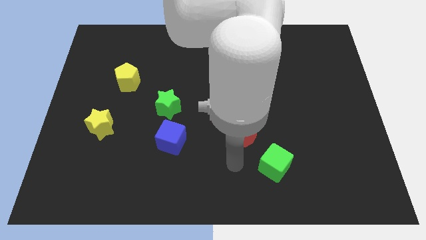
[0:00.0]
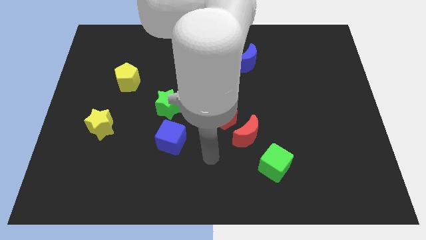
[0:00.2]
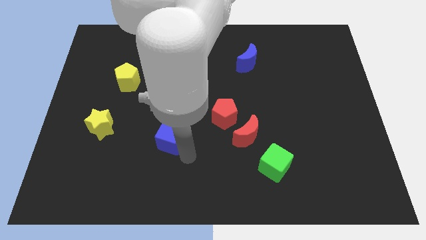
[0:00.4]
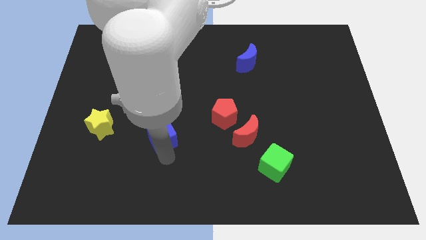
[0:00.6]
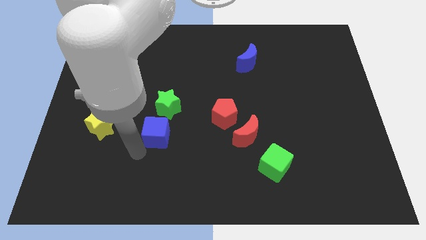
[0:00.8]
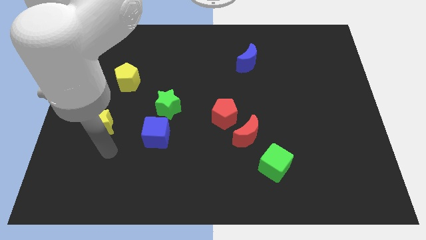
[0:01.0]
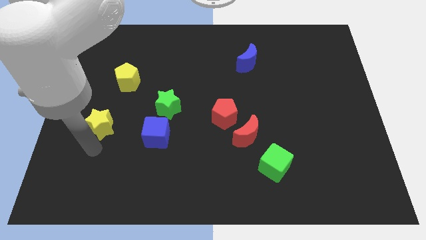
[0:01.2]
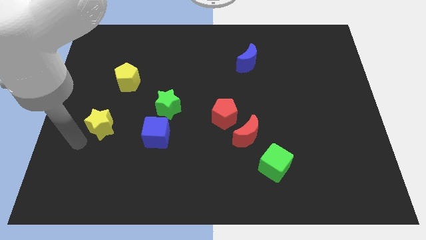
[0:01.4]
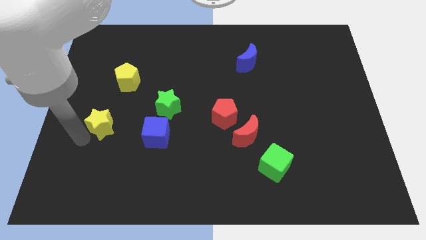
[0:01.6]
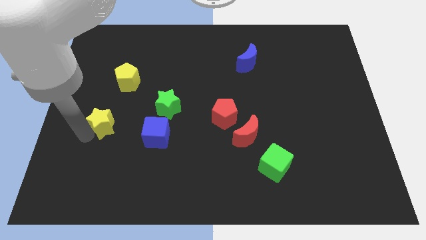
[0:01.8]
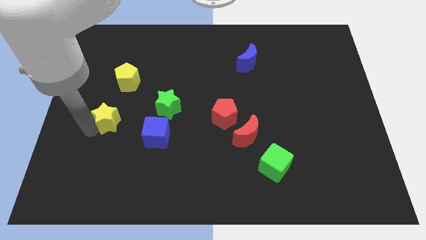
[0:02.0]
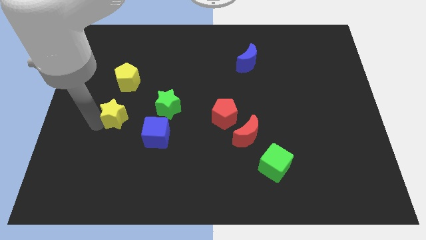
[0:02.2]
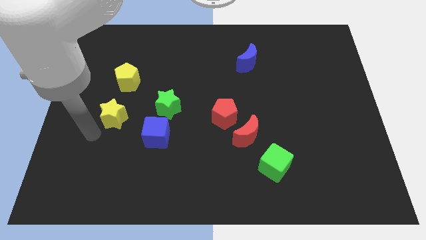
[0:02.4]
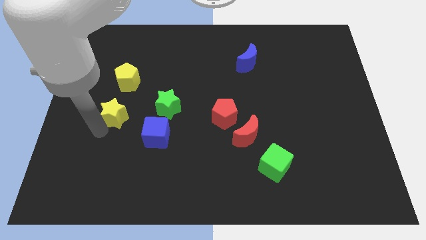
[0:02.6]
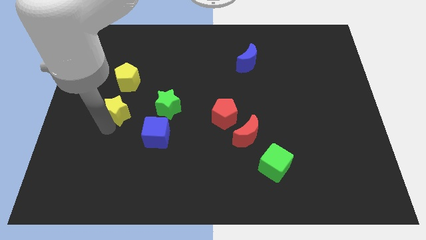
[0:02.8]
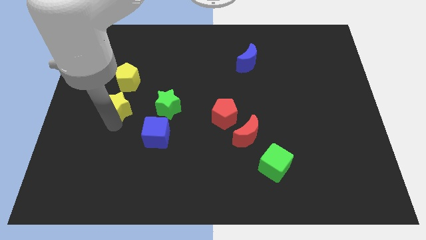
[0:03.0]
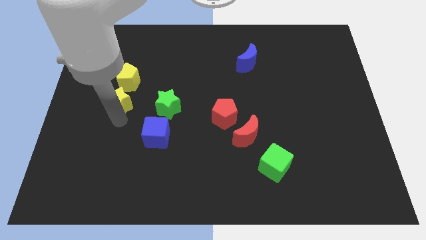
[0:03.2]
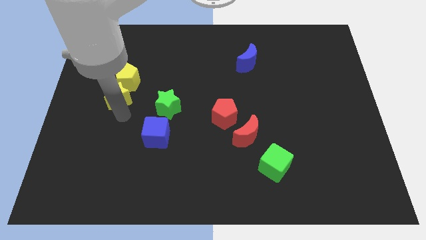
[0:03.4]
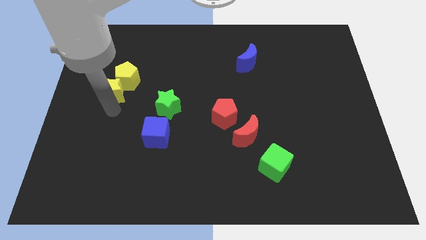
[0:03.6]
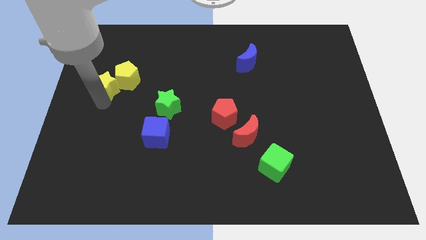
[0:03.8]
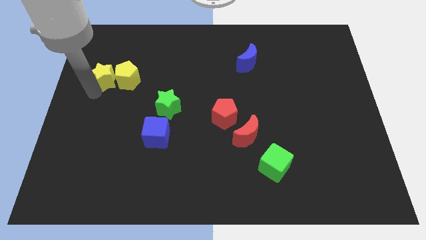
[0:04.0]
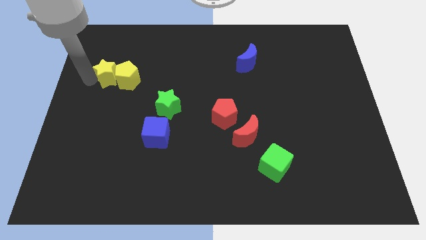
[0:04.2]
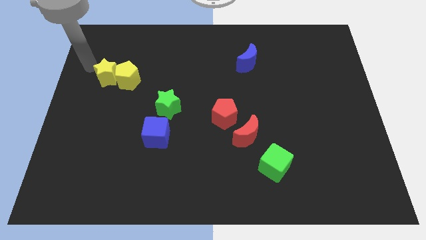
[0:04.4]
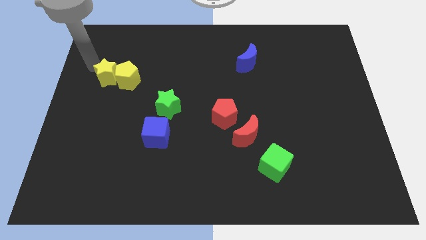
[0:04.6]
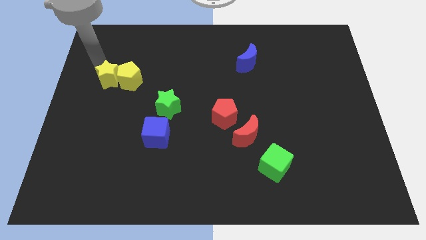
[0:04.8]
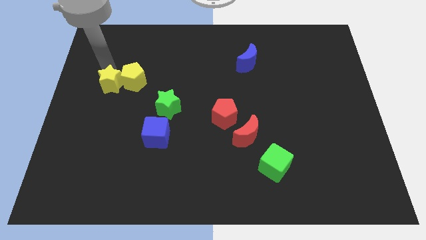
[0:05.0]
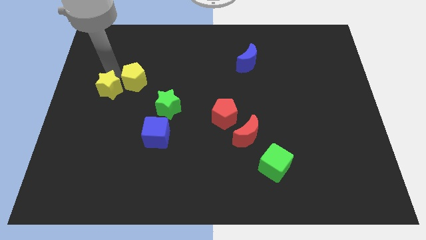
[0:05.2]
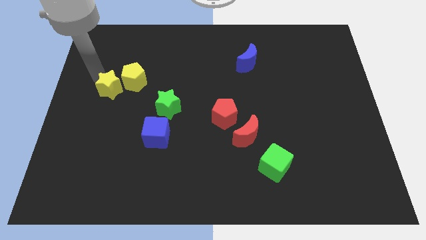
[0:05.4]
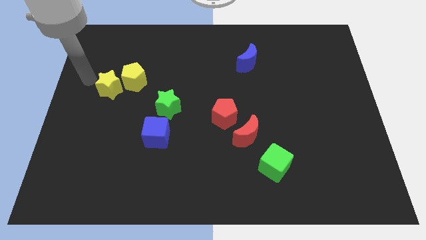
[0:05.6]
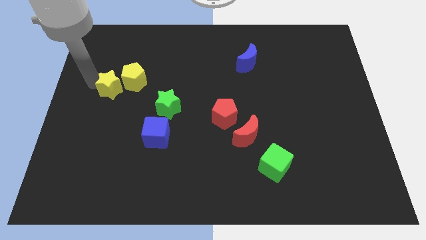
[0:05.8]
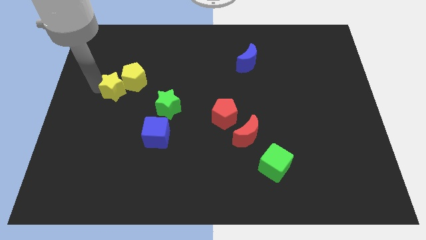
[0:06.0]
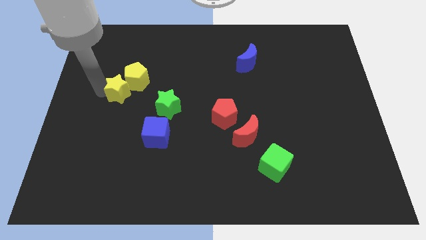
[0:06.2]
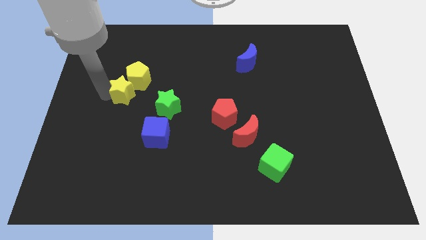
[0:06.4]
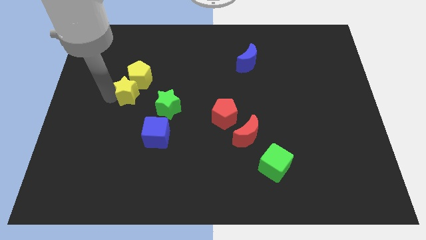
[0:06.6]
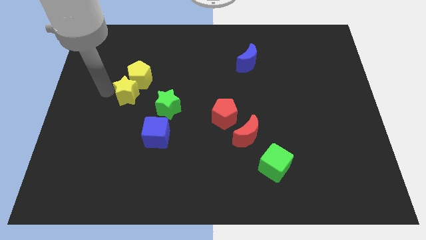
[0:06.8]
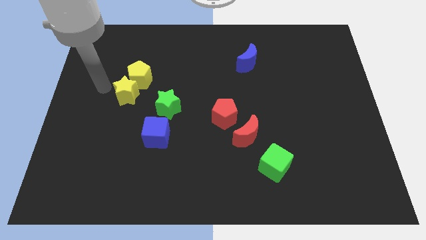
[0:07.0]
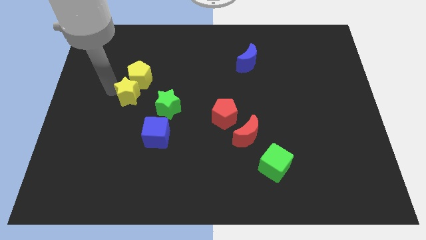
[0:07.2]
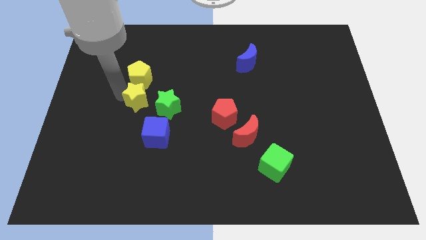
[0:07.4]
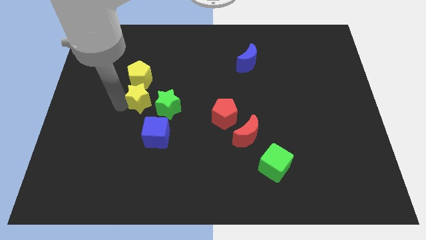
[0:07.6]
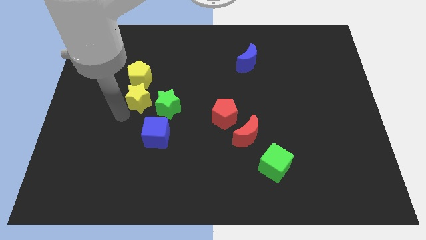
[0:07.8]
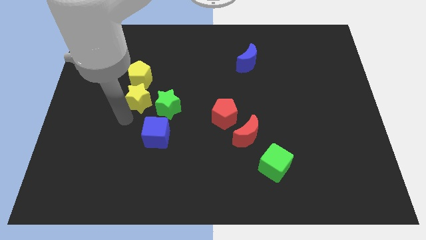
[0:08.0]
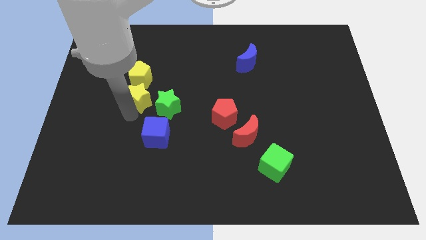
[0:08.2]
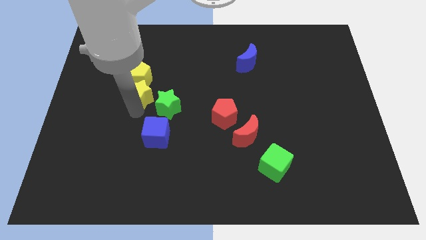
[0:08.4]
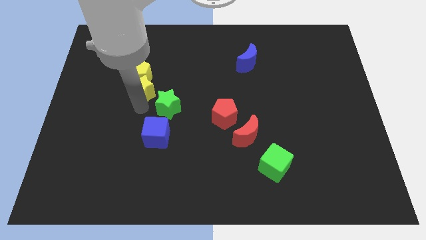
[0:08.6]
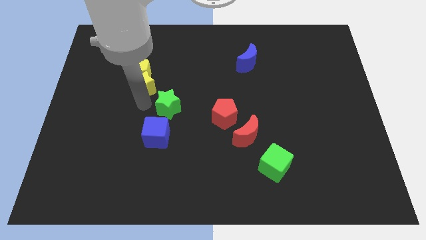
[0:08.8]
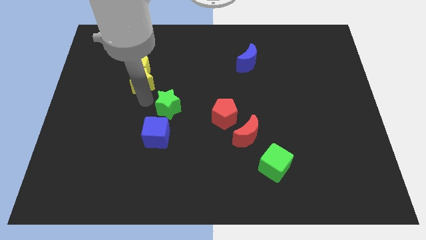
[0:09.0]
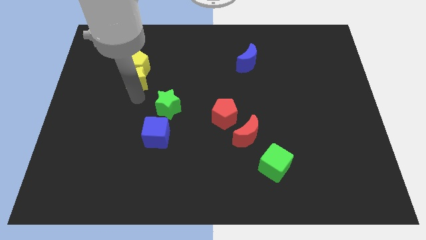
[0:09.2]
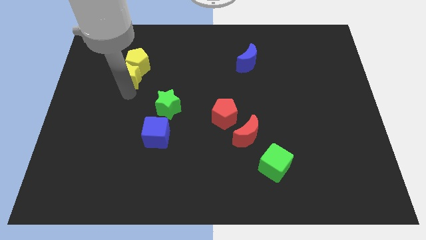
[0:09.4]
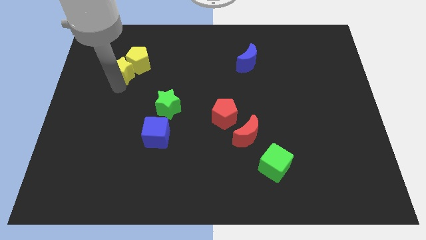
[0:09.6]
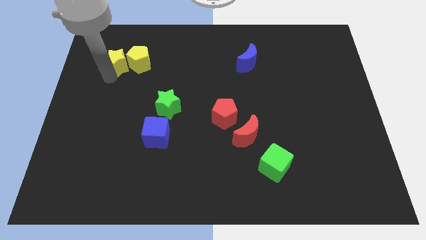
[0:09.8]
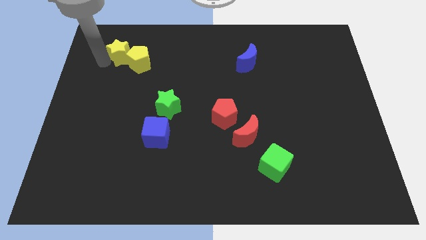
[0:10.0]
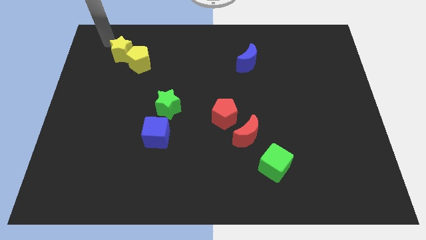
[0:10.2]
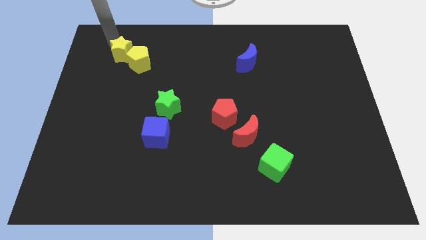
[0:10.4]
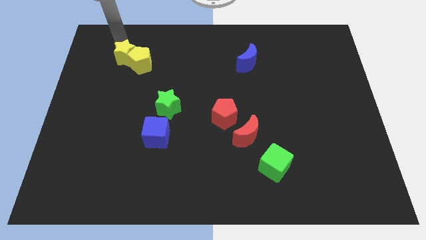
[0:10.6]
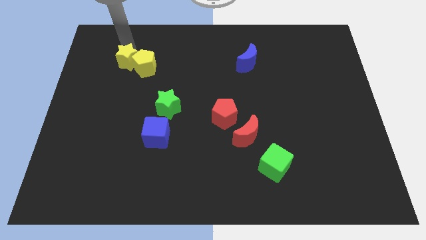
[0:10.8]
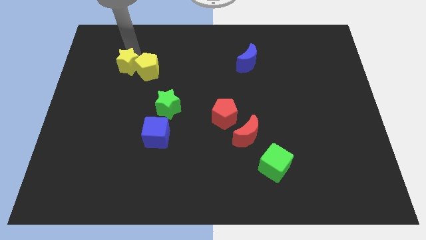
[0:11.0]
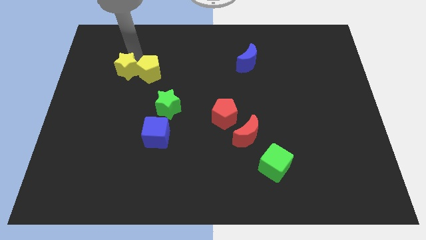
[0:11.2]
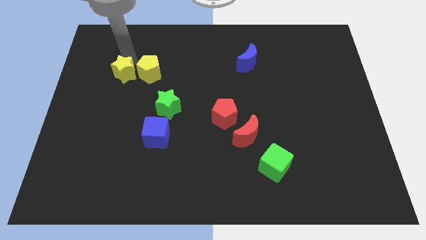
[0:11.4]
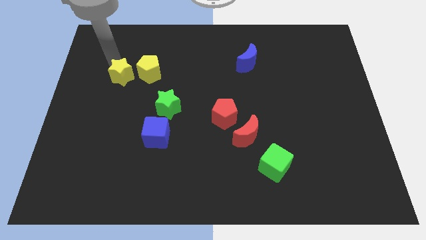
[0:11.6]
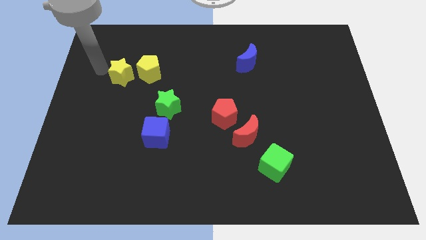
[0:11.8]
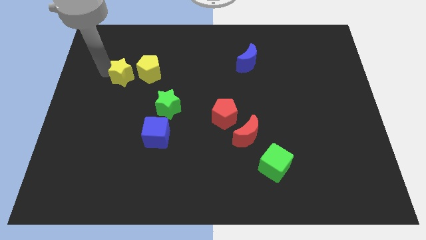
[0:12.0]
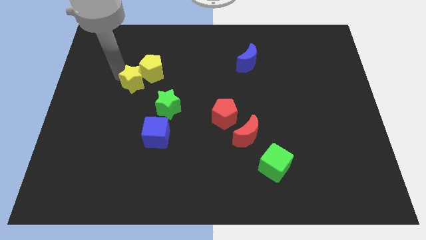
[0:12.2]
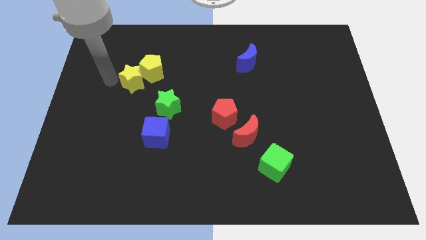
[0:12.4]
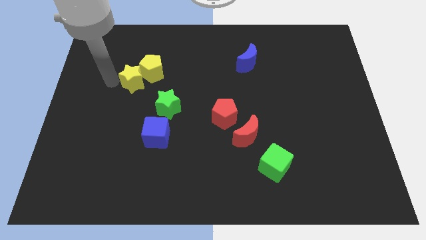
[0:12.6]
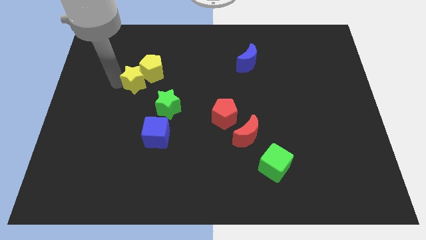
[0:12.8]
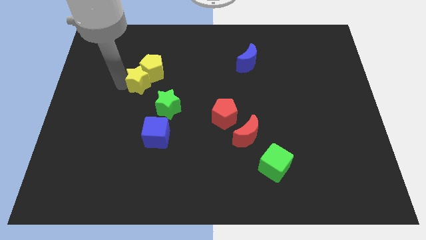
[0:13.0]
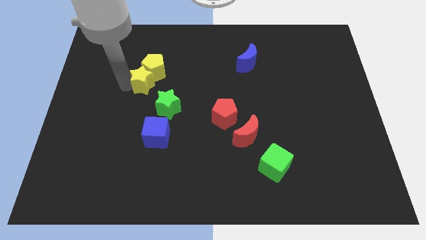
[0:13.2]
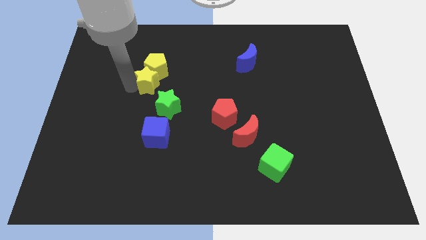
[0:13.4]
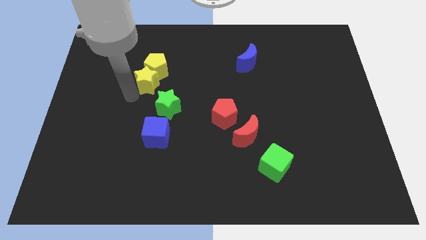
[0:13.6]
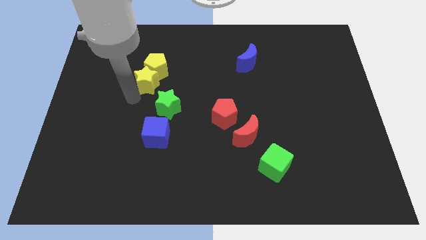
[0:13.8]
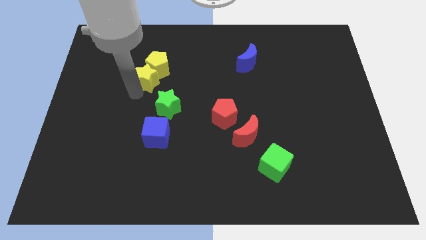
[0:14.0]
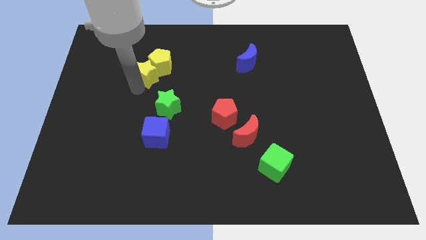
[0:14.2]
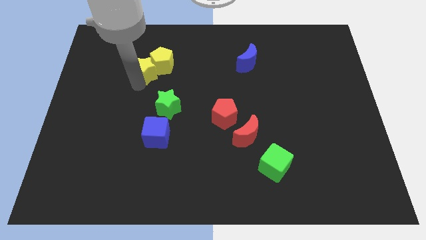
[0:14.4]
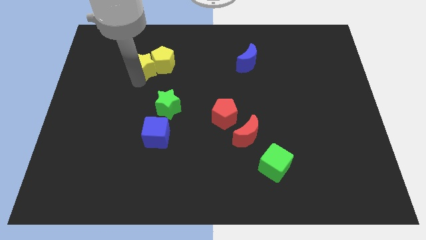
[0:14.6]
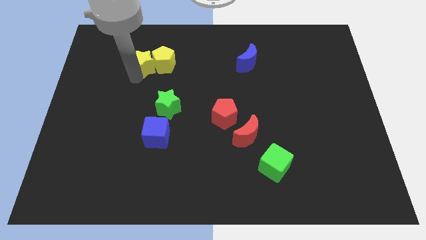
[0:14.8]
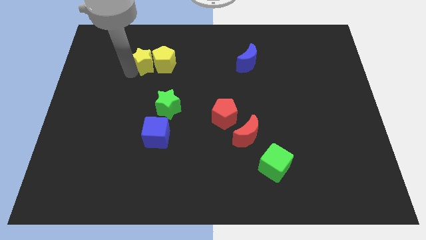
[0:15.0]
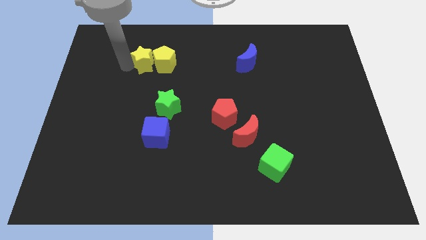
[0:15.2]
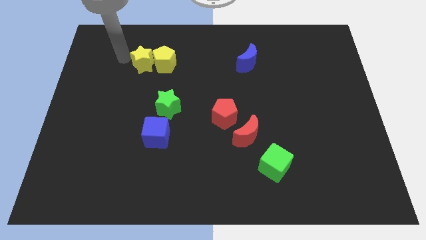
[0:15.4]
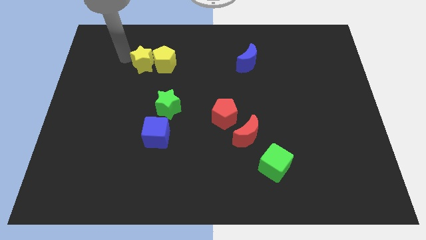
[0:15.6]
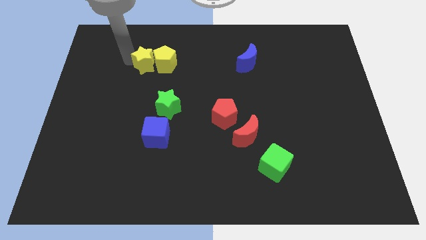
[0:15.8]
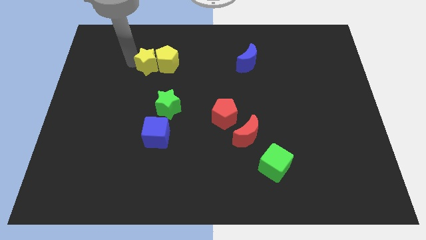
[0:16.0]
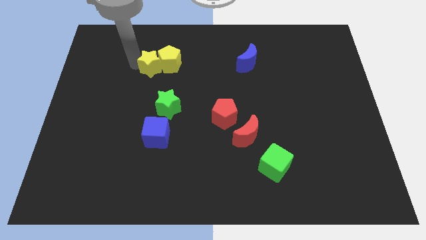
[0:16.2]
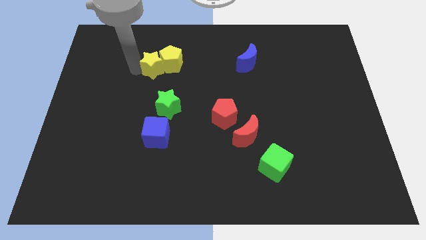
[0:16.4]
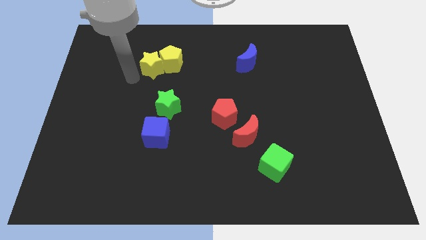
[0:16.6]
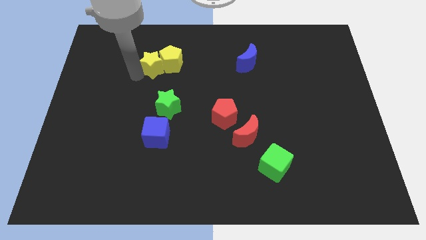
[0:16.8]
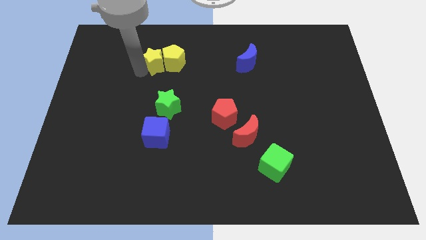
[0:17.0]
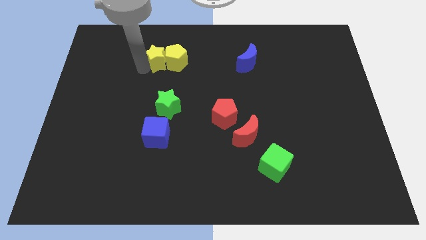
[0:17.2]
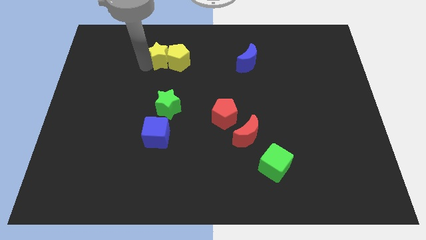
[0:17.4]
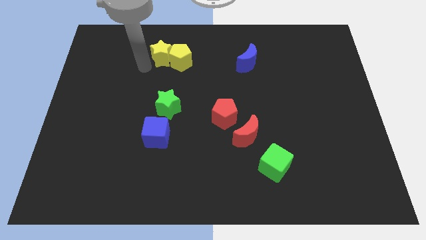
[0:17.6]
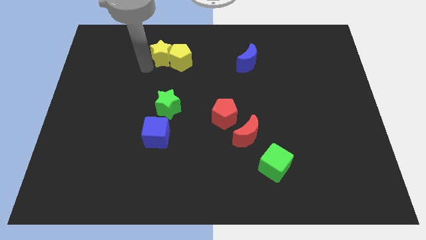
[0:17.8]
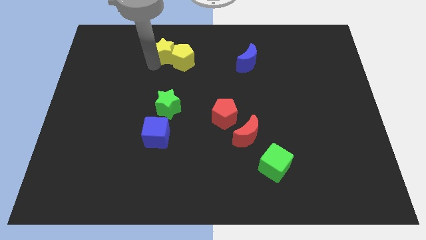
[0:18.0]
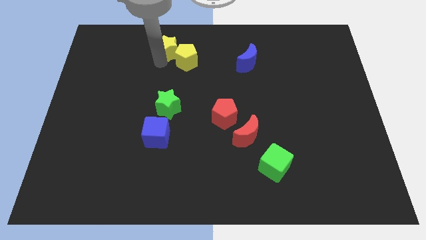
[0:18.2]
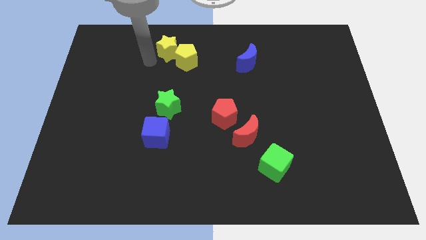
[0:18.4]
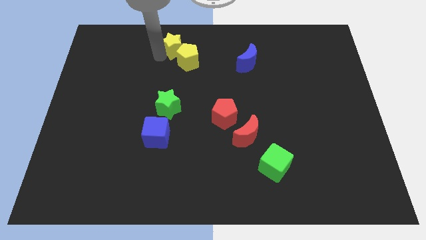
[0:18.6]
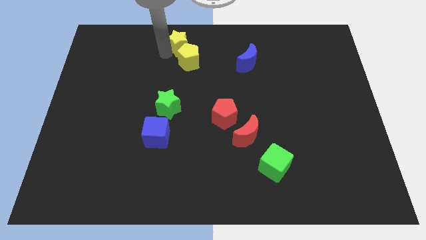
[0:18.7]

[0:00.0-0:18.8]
put the yellow star to the top side
